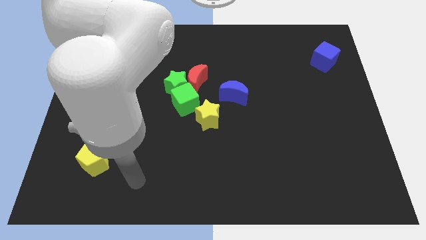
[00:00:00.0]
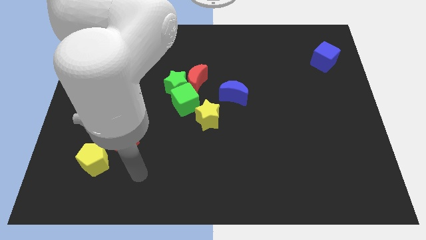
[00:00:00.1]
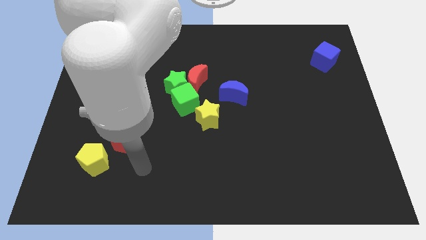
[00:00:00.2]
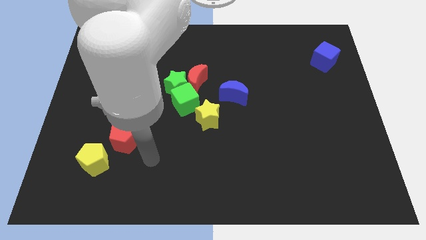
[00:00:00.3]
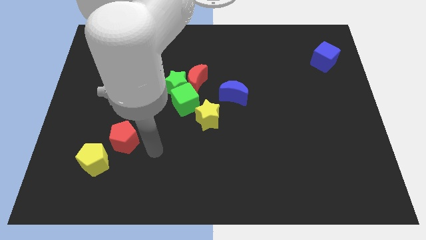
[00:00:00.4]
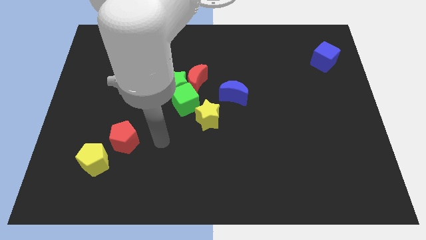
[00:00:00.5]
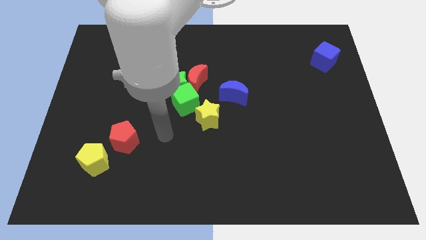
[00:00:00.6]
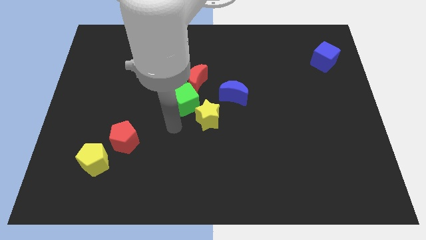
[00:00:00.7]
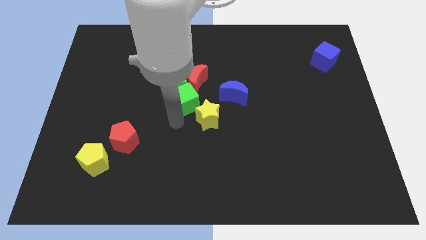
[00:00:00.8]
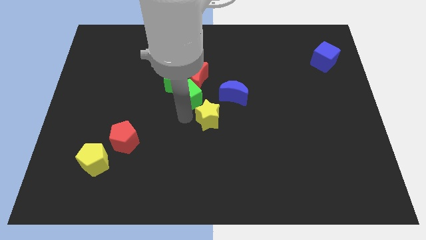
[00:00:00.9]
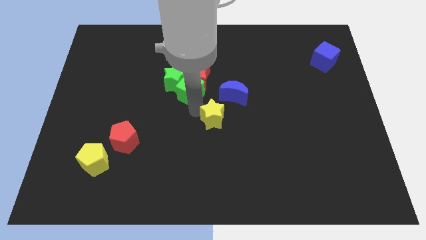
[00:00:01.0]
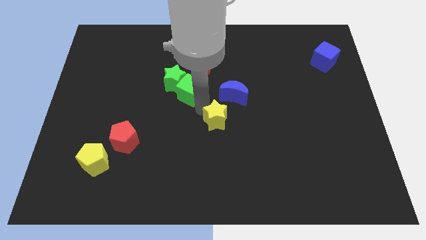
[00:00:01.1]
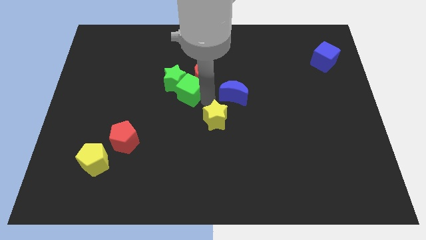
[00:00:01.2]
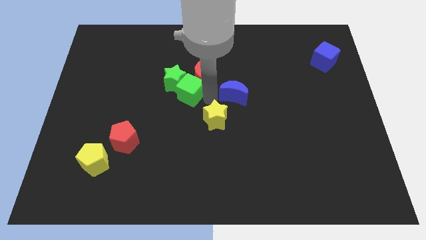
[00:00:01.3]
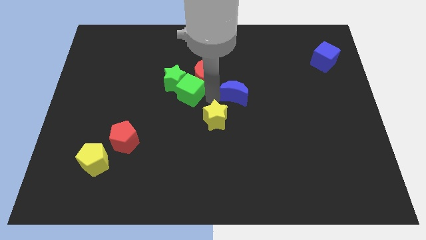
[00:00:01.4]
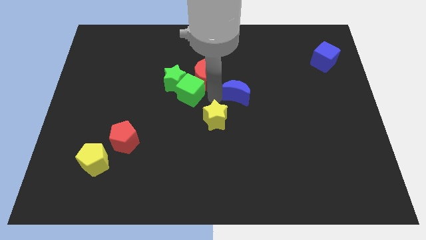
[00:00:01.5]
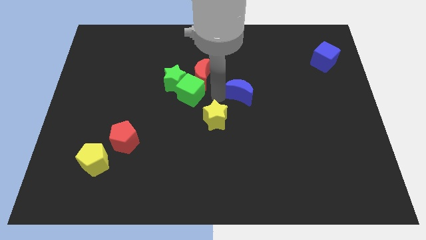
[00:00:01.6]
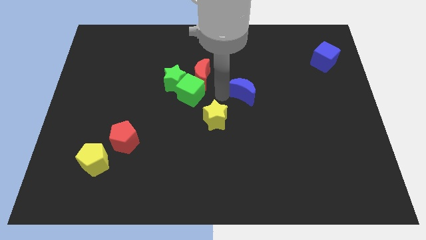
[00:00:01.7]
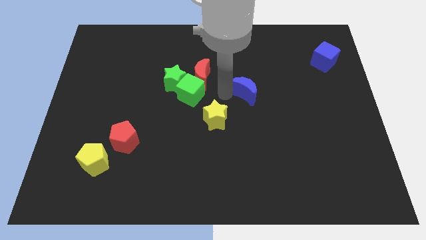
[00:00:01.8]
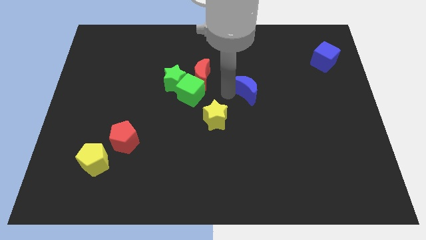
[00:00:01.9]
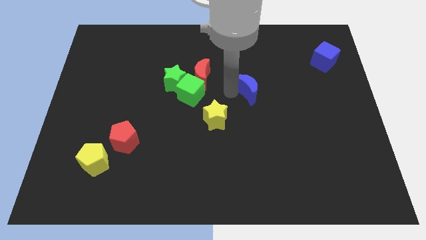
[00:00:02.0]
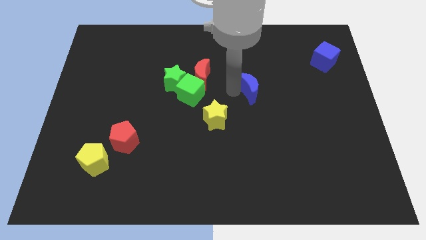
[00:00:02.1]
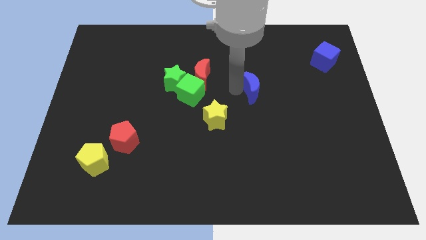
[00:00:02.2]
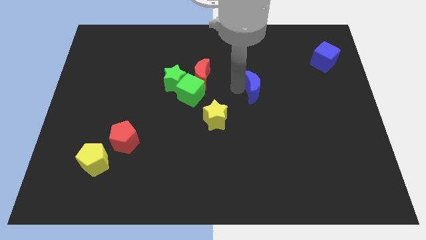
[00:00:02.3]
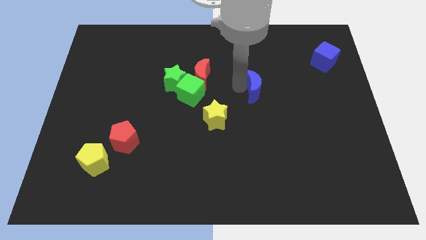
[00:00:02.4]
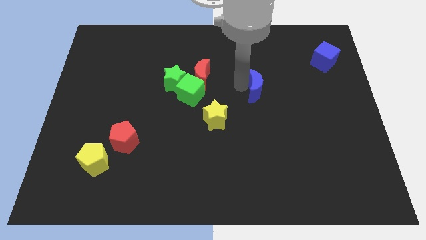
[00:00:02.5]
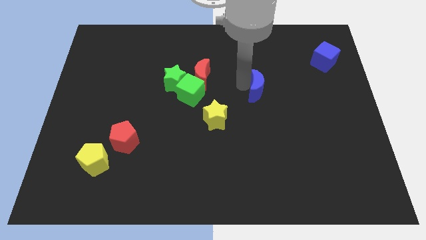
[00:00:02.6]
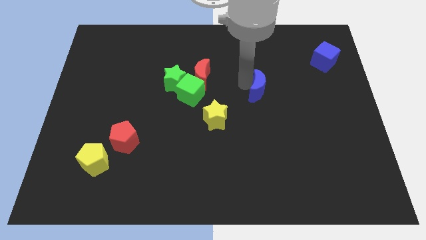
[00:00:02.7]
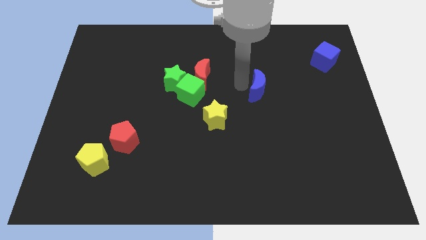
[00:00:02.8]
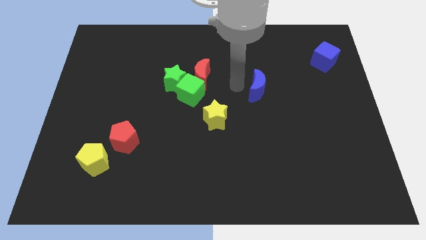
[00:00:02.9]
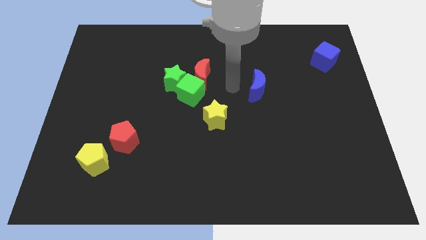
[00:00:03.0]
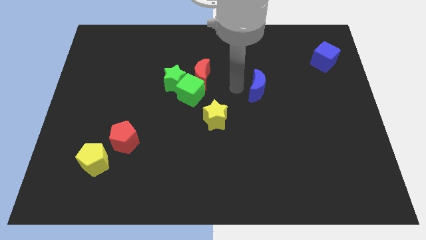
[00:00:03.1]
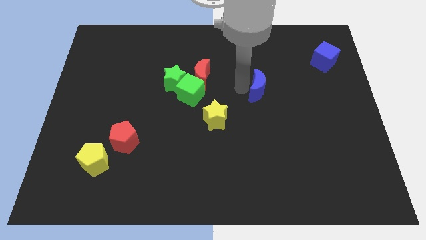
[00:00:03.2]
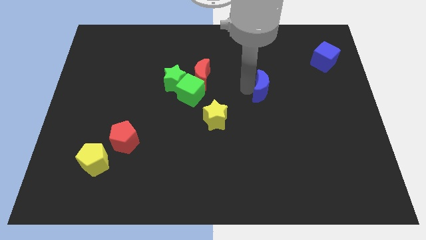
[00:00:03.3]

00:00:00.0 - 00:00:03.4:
slightly move the blue moon right

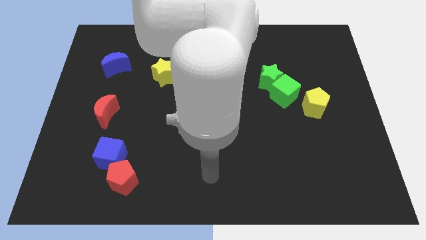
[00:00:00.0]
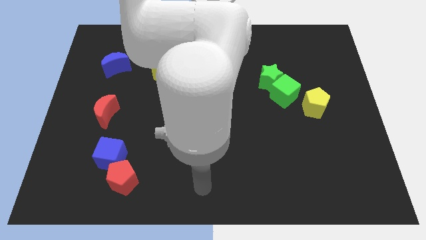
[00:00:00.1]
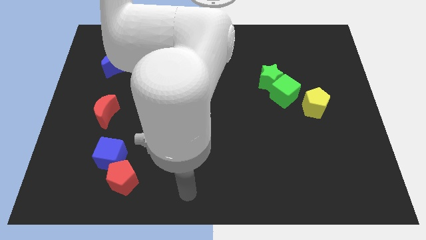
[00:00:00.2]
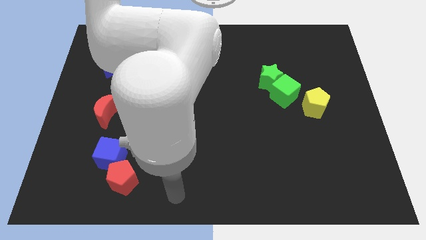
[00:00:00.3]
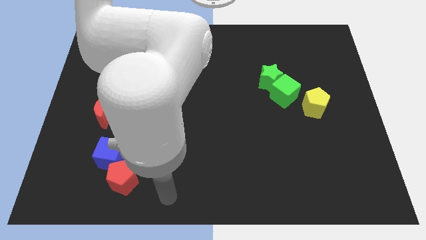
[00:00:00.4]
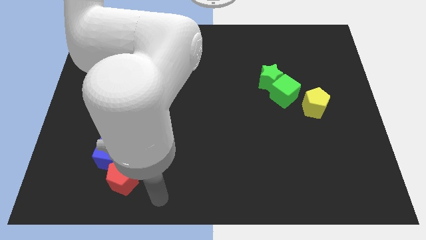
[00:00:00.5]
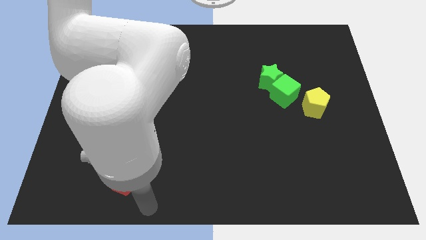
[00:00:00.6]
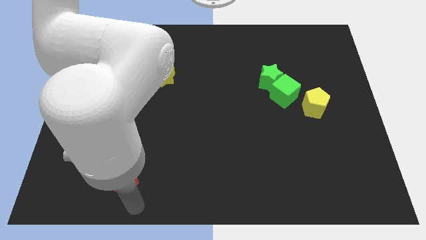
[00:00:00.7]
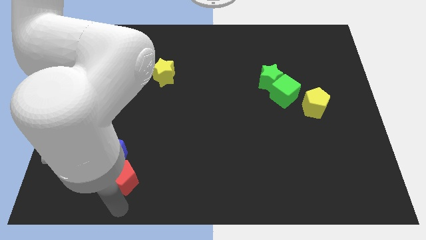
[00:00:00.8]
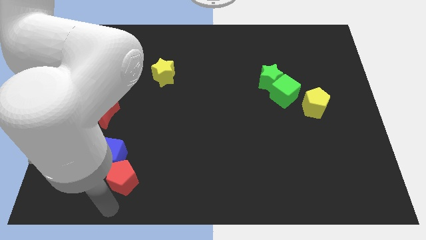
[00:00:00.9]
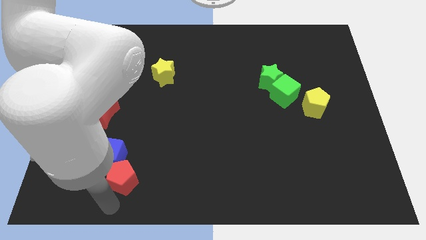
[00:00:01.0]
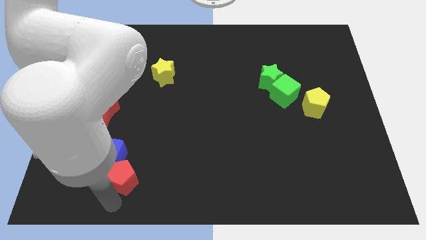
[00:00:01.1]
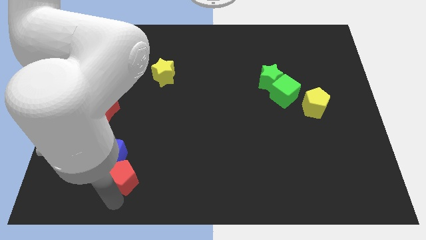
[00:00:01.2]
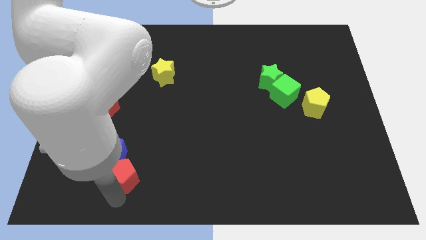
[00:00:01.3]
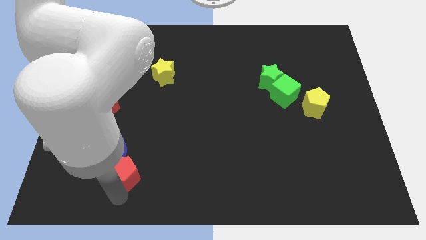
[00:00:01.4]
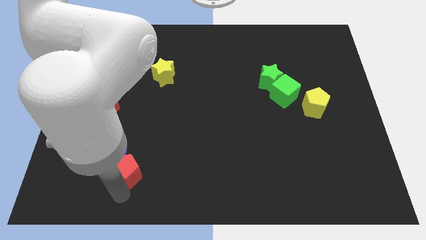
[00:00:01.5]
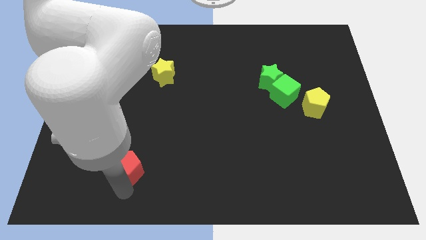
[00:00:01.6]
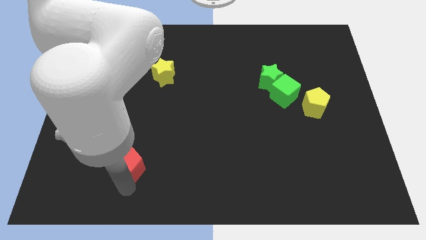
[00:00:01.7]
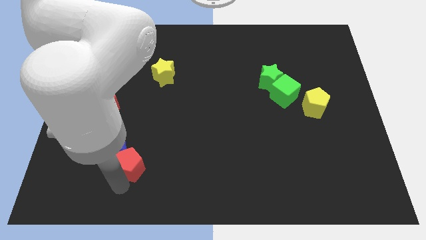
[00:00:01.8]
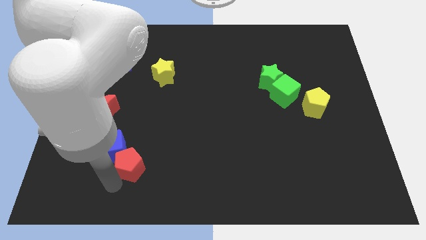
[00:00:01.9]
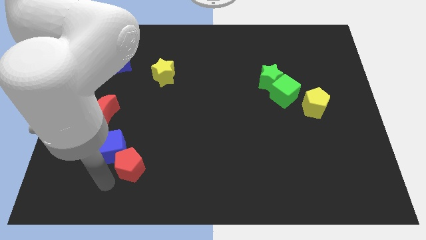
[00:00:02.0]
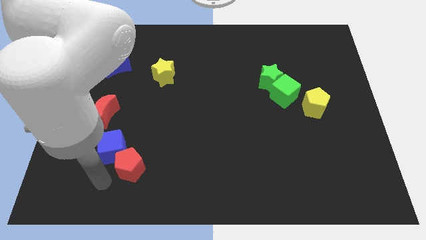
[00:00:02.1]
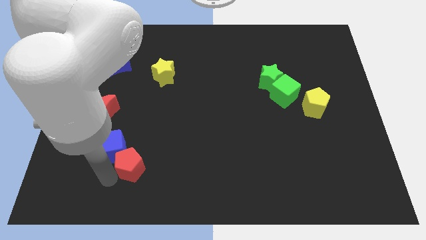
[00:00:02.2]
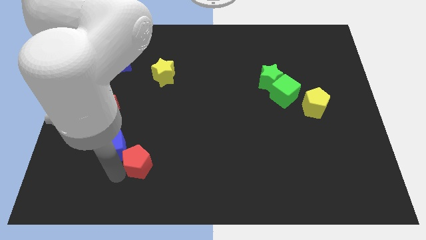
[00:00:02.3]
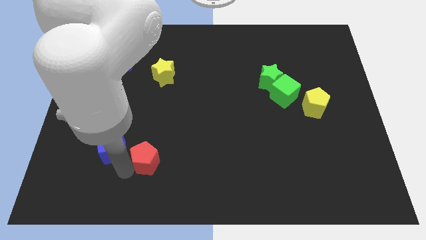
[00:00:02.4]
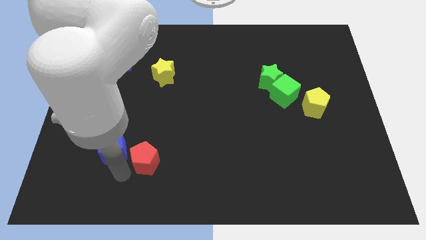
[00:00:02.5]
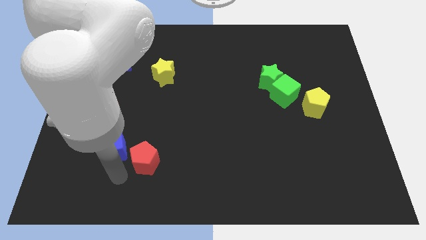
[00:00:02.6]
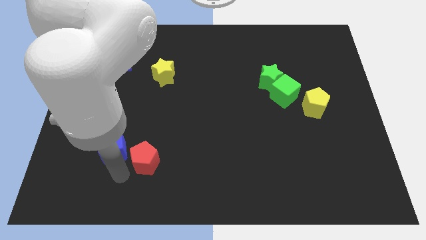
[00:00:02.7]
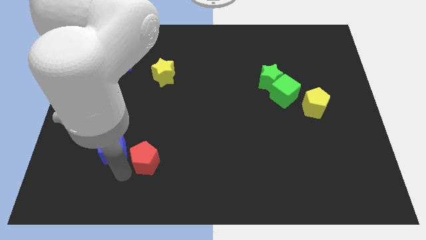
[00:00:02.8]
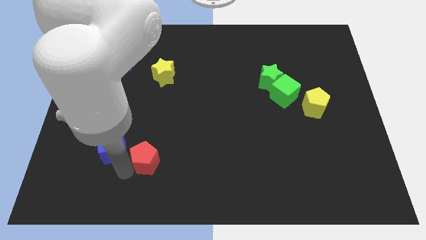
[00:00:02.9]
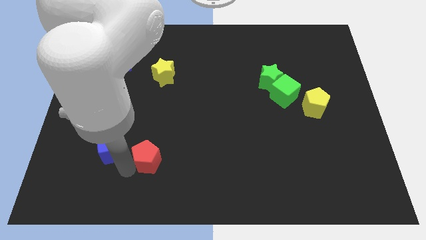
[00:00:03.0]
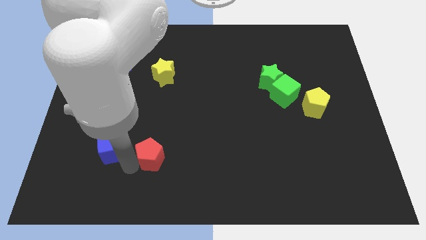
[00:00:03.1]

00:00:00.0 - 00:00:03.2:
move the red pentagon a little bit upwards and right

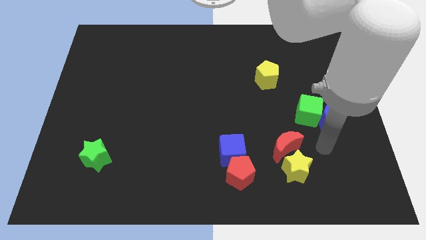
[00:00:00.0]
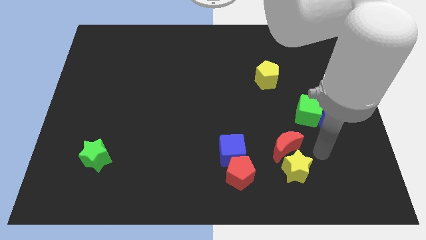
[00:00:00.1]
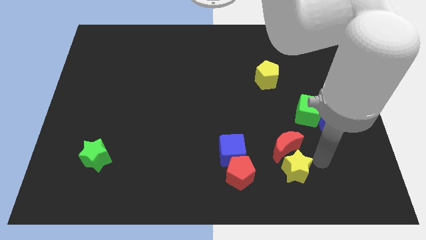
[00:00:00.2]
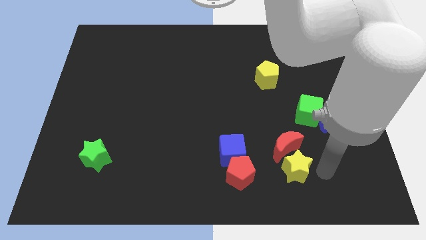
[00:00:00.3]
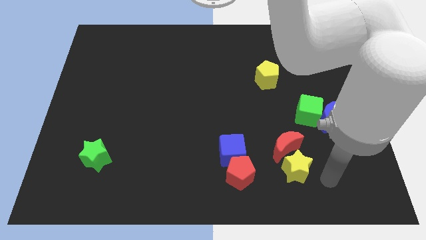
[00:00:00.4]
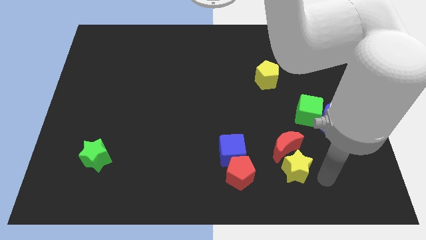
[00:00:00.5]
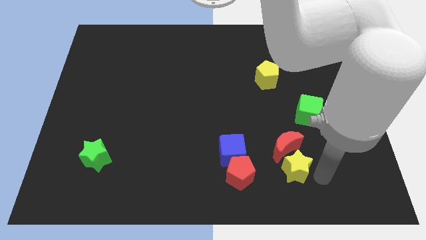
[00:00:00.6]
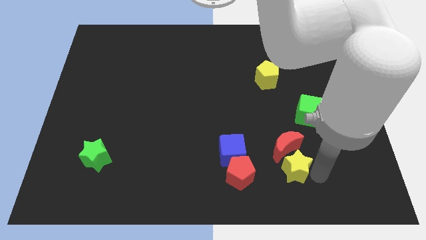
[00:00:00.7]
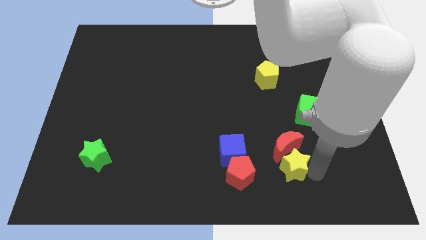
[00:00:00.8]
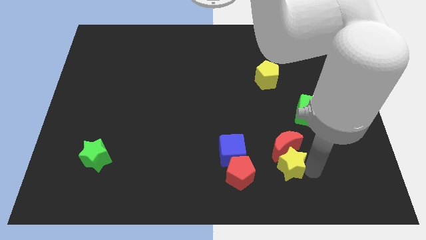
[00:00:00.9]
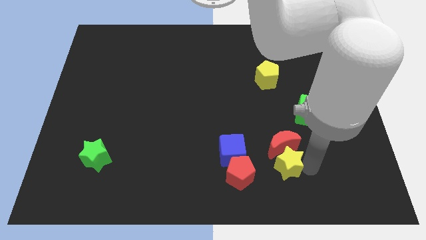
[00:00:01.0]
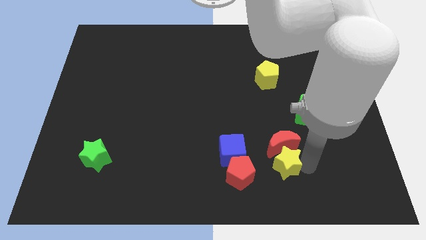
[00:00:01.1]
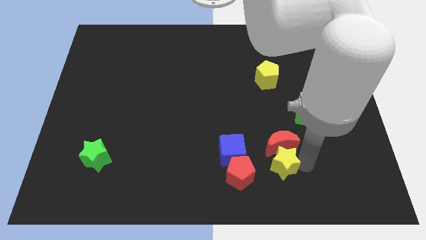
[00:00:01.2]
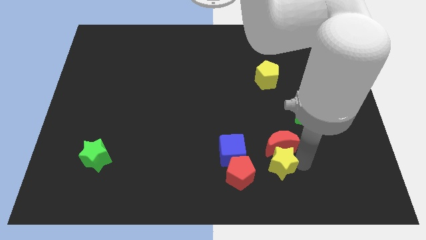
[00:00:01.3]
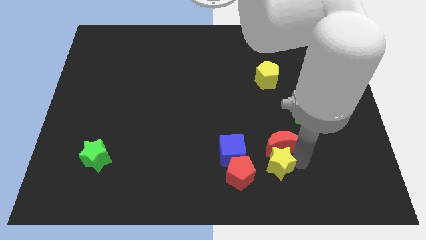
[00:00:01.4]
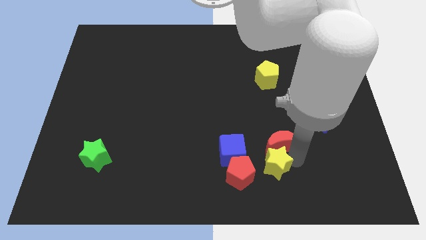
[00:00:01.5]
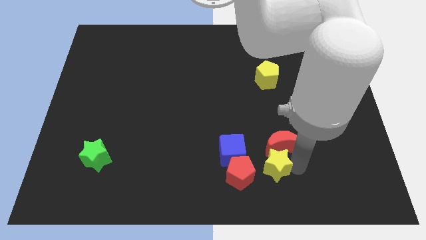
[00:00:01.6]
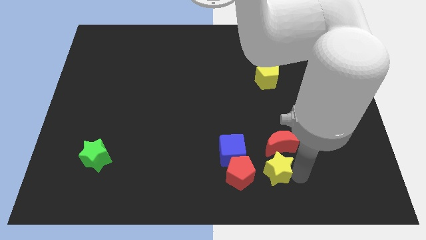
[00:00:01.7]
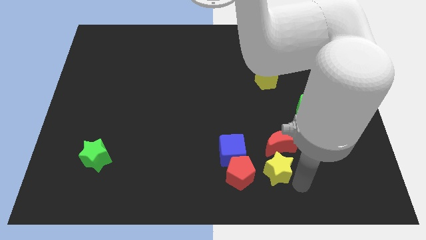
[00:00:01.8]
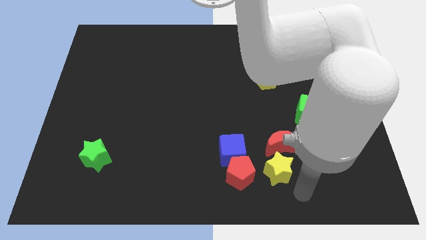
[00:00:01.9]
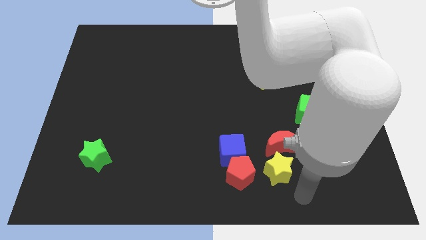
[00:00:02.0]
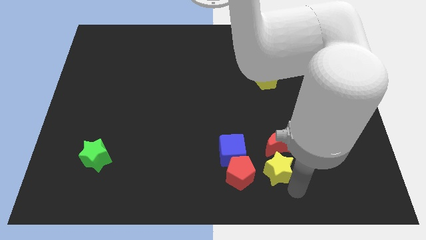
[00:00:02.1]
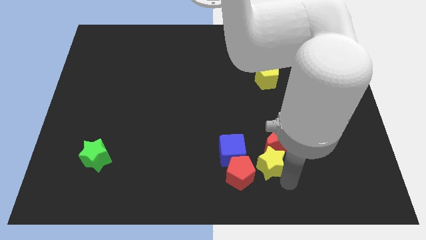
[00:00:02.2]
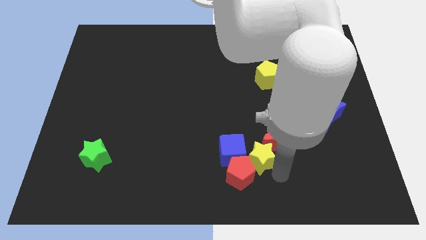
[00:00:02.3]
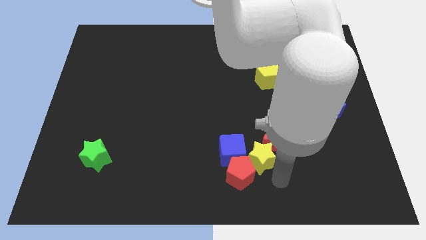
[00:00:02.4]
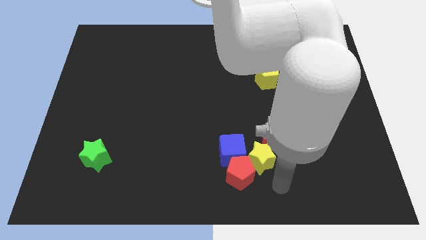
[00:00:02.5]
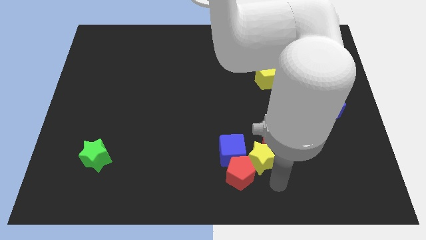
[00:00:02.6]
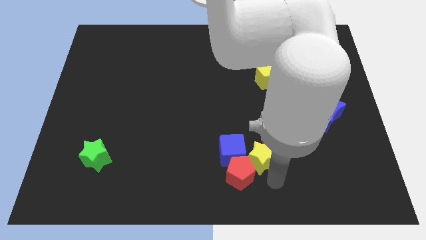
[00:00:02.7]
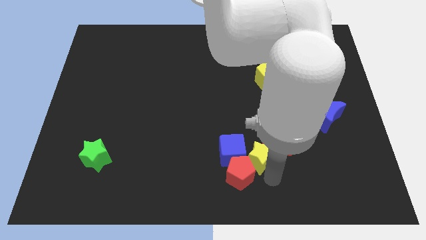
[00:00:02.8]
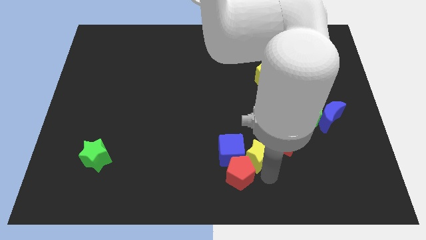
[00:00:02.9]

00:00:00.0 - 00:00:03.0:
slightly slide the yellow star upwards and to the left
